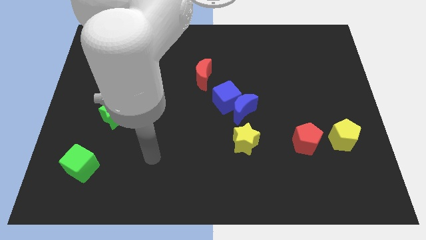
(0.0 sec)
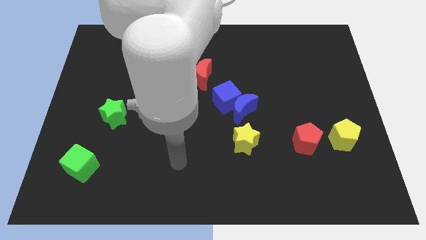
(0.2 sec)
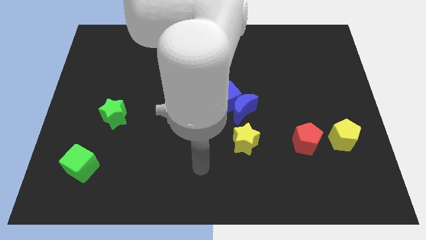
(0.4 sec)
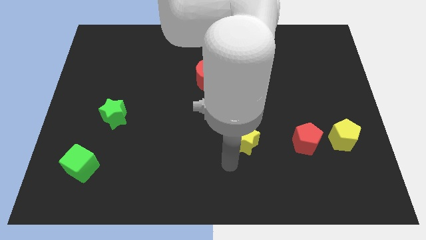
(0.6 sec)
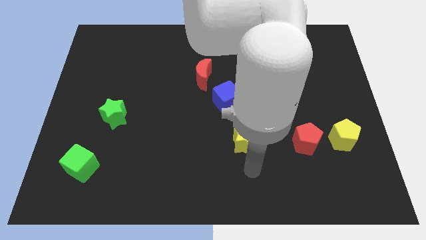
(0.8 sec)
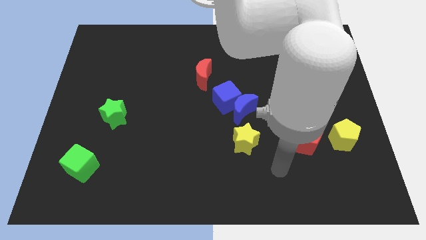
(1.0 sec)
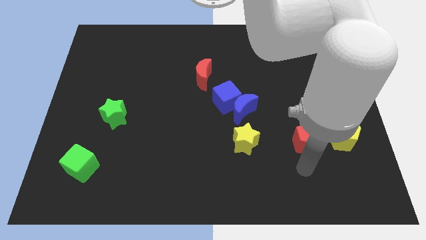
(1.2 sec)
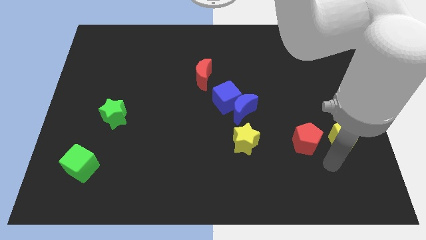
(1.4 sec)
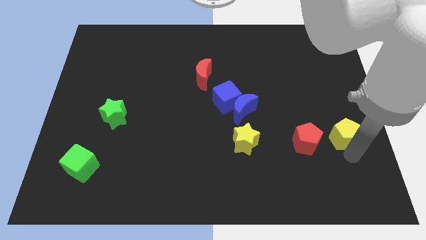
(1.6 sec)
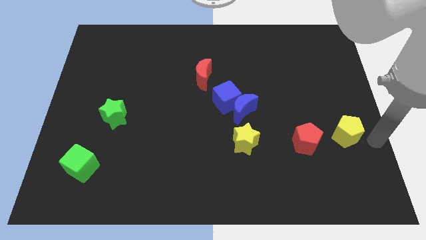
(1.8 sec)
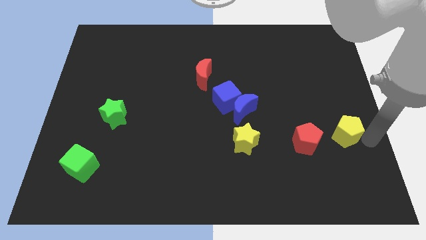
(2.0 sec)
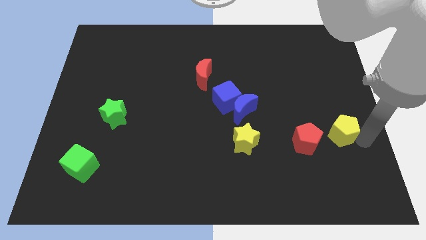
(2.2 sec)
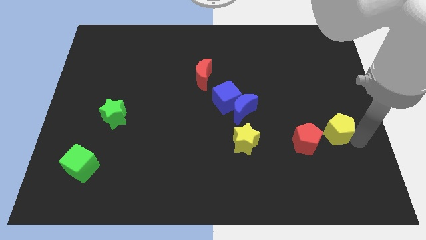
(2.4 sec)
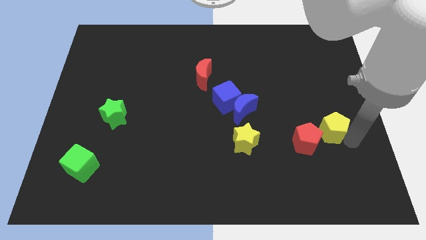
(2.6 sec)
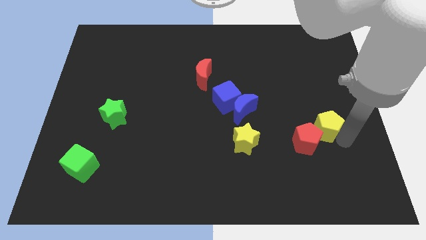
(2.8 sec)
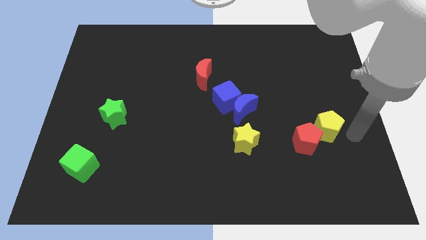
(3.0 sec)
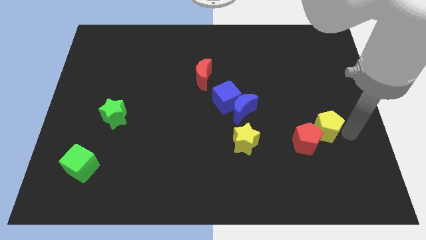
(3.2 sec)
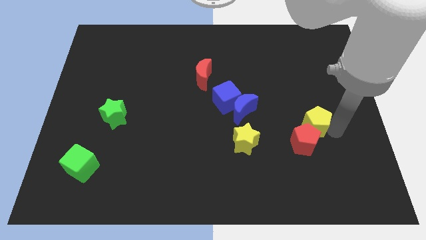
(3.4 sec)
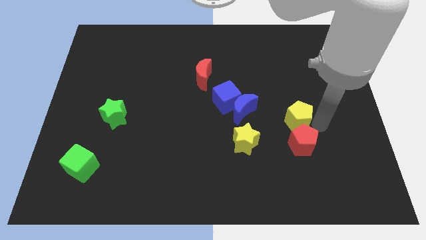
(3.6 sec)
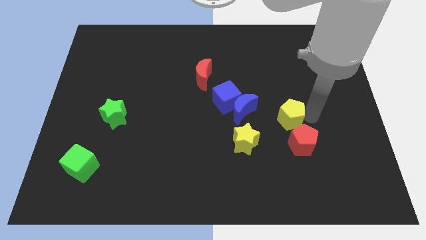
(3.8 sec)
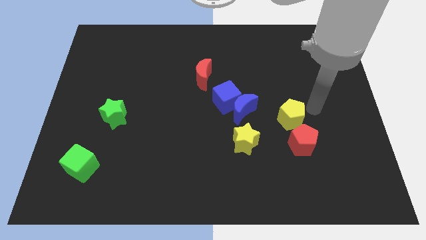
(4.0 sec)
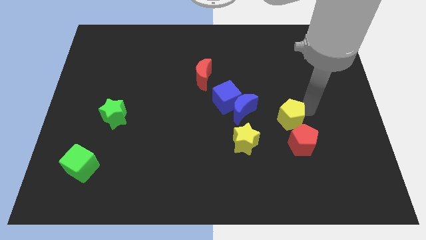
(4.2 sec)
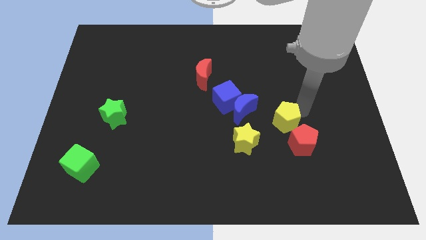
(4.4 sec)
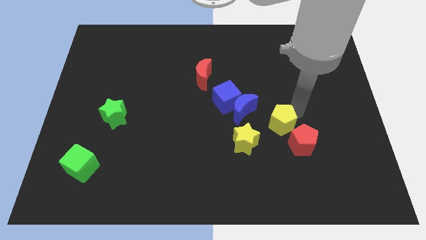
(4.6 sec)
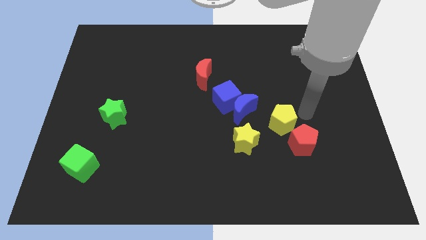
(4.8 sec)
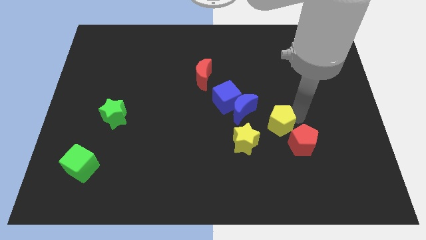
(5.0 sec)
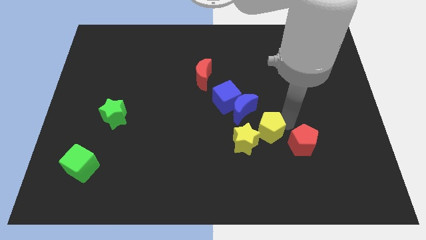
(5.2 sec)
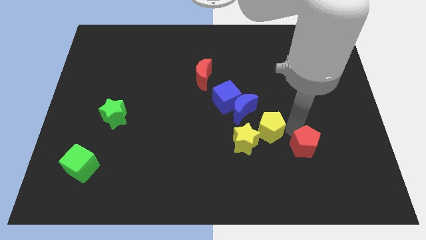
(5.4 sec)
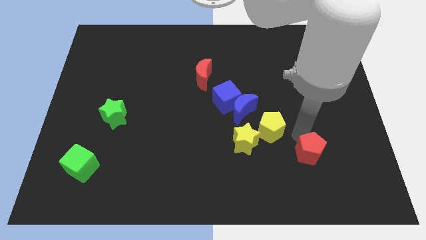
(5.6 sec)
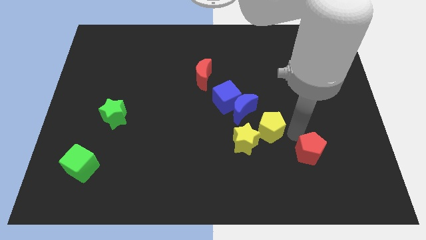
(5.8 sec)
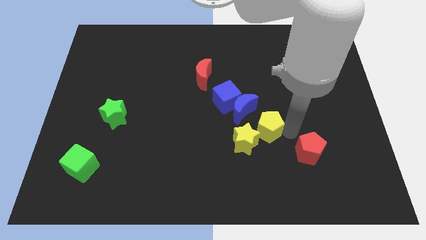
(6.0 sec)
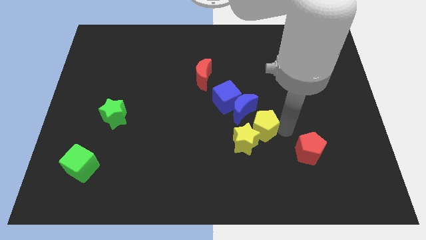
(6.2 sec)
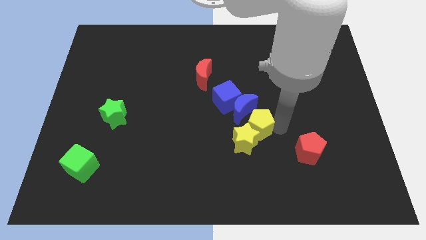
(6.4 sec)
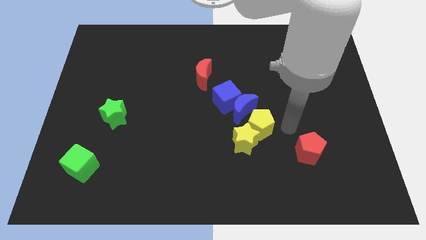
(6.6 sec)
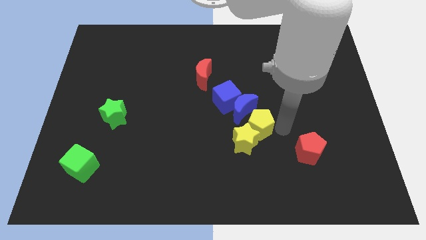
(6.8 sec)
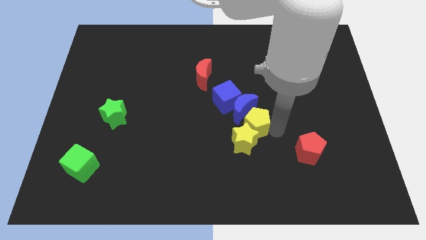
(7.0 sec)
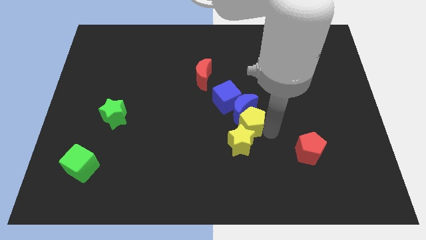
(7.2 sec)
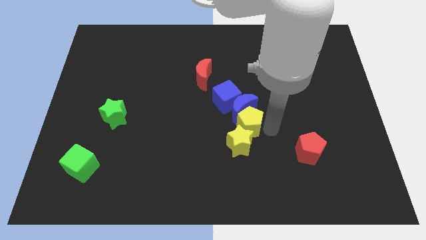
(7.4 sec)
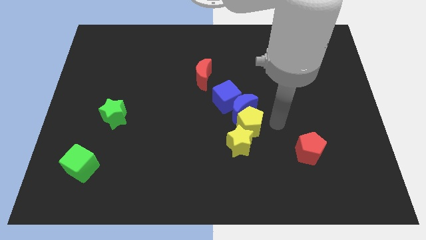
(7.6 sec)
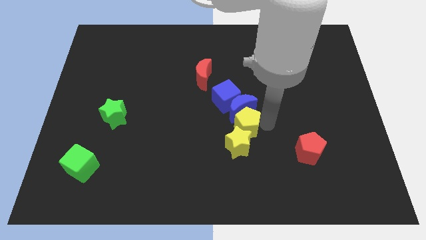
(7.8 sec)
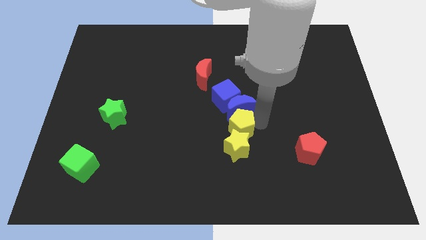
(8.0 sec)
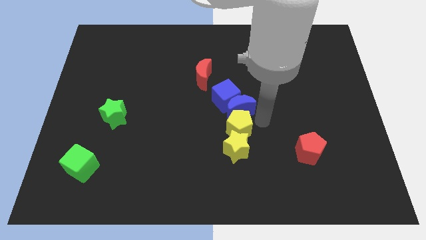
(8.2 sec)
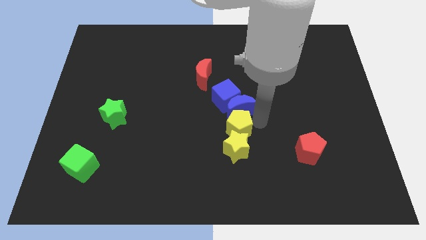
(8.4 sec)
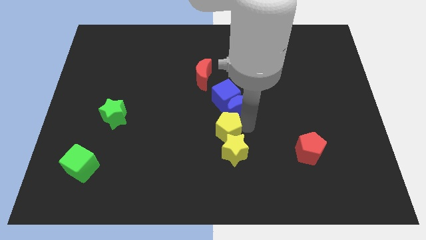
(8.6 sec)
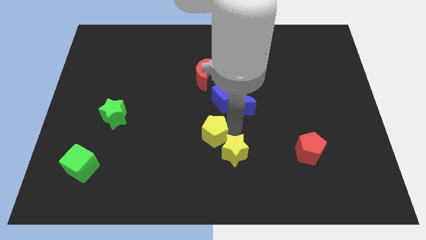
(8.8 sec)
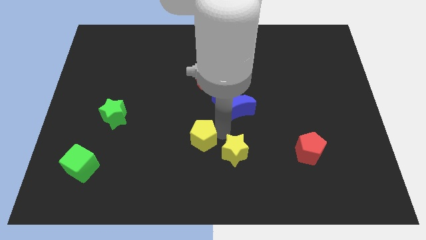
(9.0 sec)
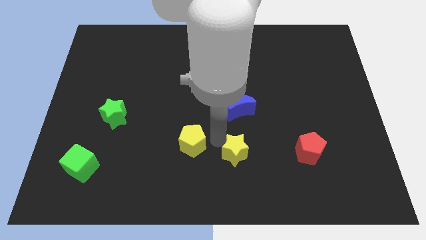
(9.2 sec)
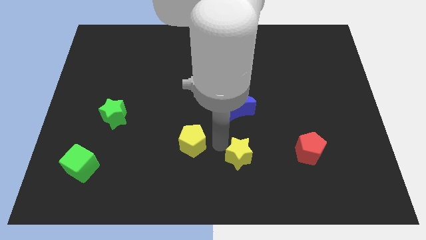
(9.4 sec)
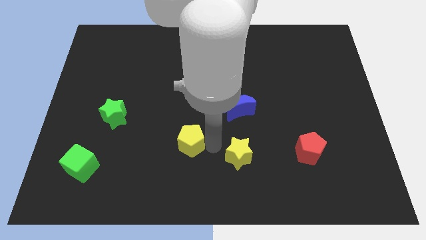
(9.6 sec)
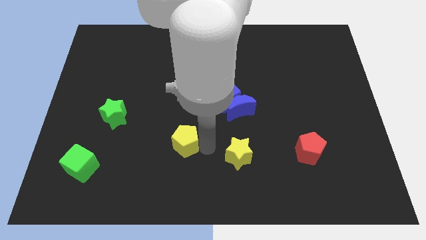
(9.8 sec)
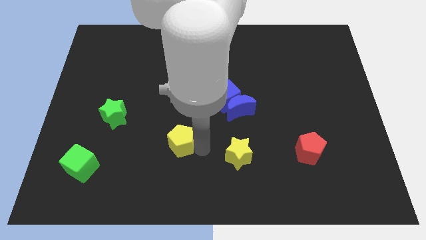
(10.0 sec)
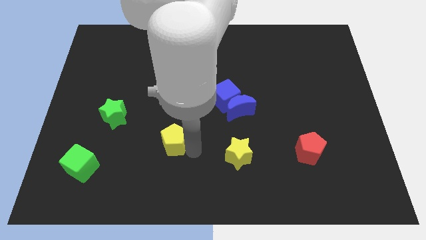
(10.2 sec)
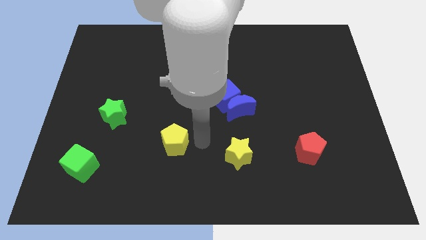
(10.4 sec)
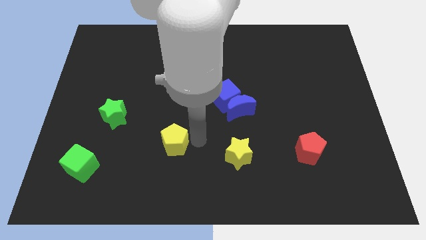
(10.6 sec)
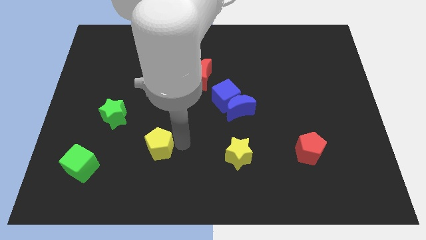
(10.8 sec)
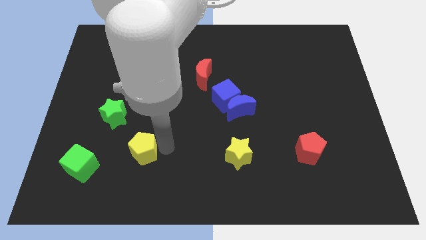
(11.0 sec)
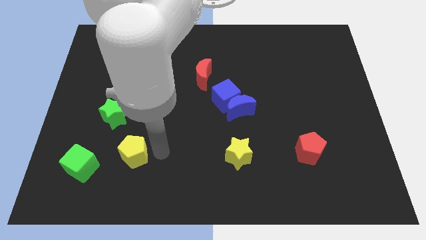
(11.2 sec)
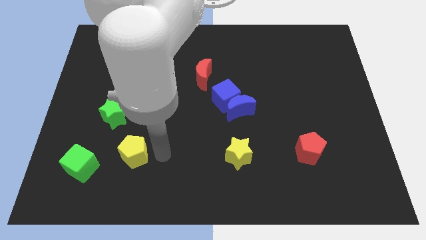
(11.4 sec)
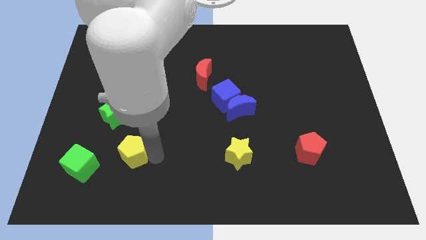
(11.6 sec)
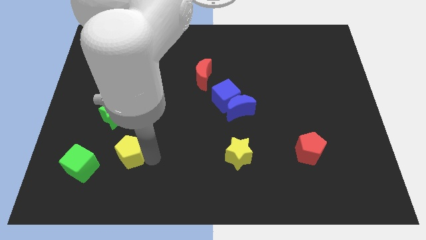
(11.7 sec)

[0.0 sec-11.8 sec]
slide the yellow pentagon to the bottom of the green star

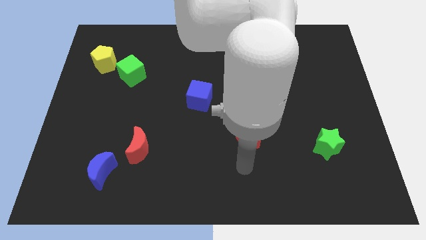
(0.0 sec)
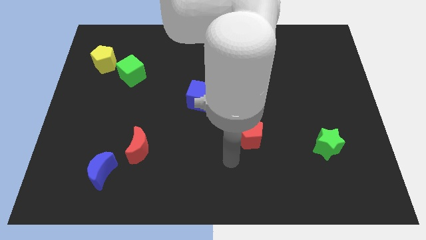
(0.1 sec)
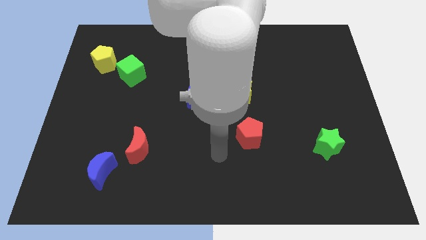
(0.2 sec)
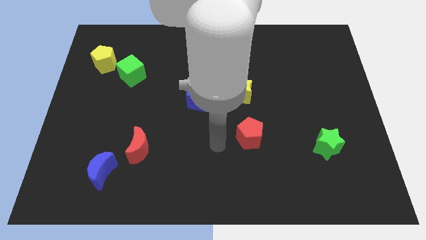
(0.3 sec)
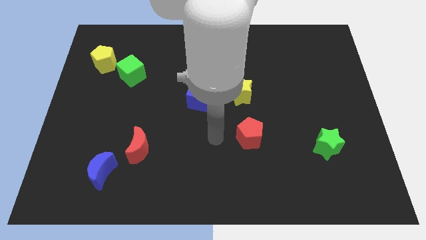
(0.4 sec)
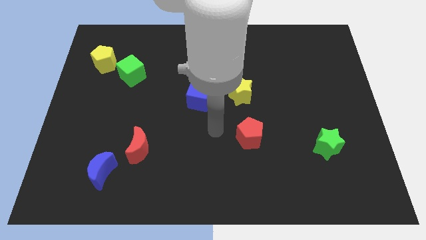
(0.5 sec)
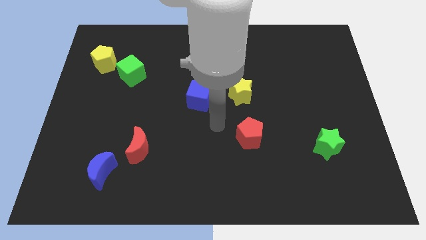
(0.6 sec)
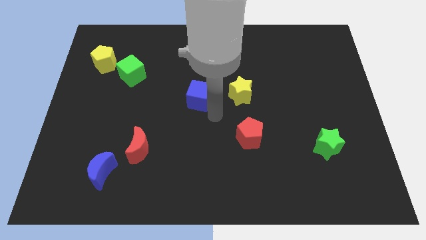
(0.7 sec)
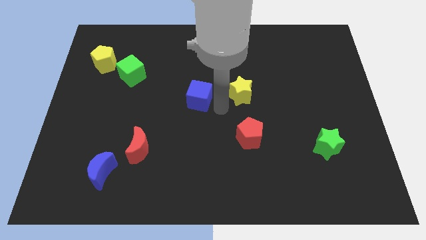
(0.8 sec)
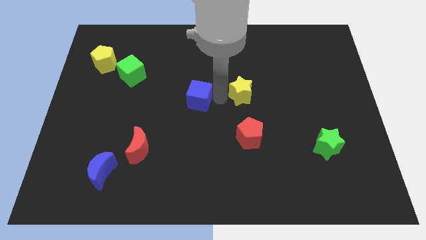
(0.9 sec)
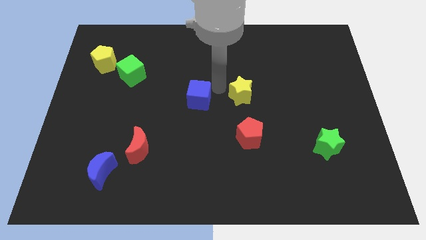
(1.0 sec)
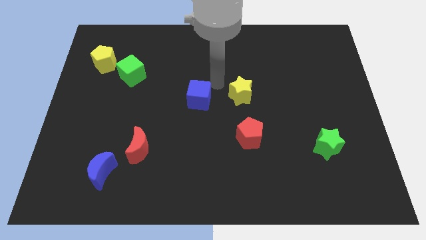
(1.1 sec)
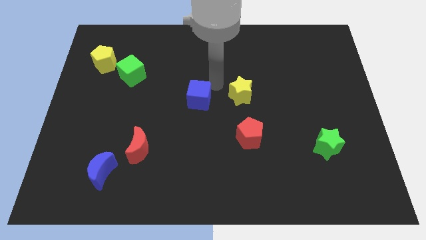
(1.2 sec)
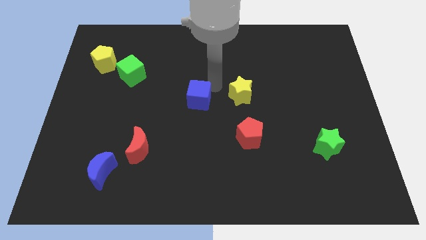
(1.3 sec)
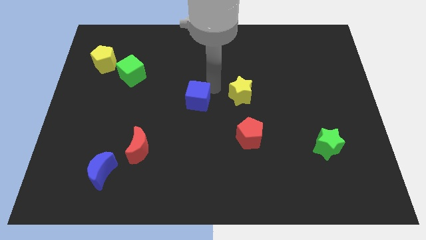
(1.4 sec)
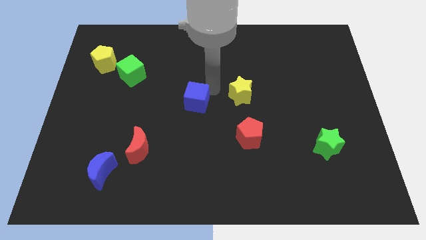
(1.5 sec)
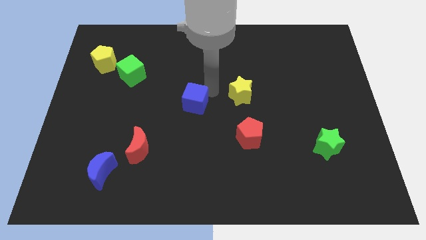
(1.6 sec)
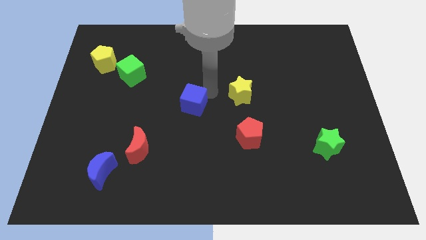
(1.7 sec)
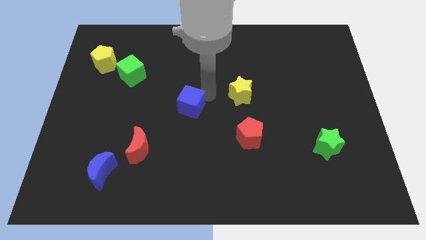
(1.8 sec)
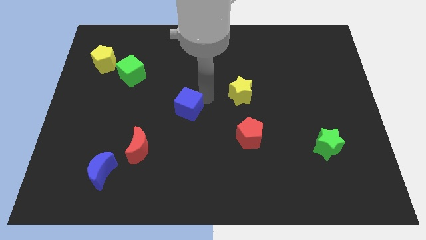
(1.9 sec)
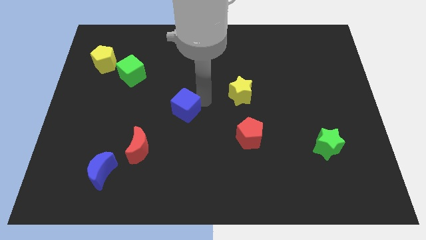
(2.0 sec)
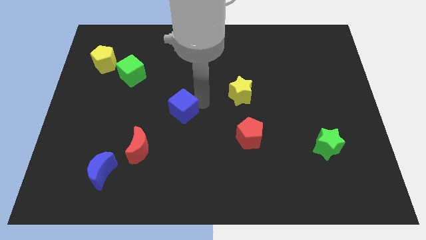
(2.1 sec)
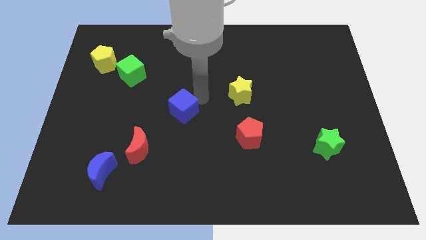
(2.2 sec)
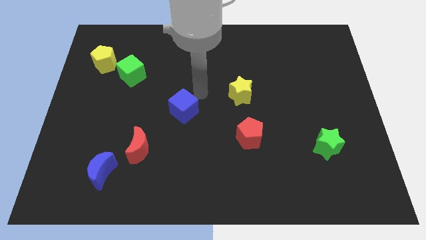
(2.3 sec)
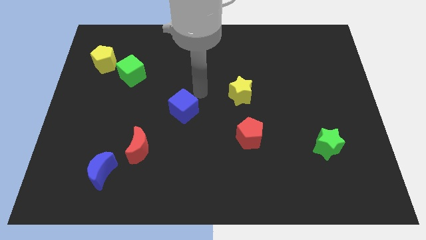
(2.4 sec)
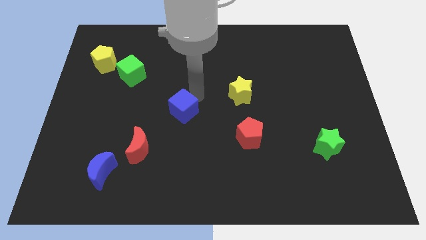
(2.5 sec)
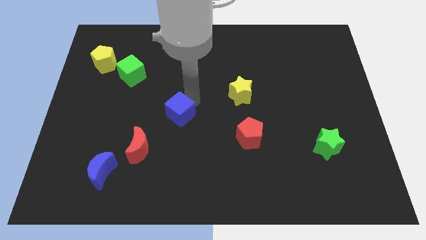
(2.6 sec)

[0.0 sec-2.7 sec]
put the blue cube to the top right side of the red moon
